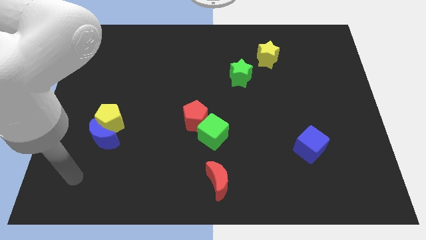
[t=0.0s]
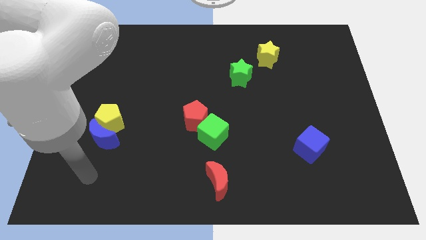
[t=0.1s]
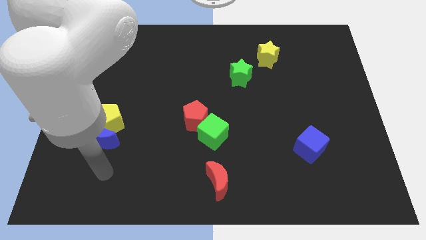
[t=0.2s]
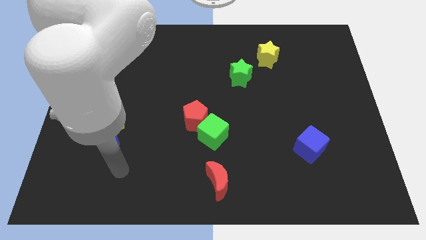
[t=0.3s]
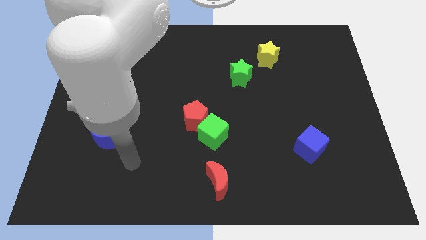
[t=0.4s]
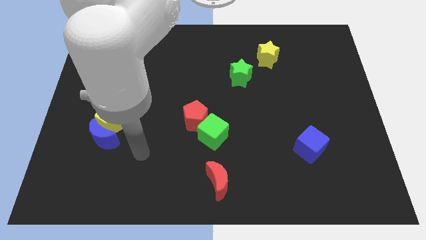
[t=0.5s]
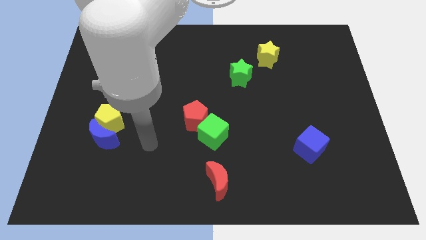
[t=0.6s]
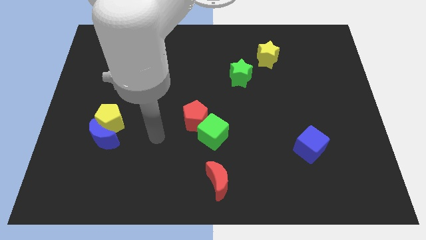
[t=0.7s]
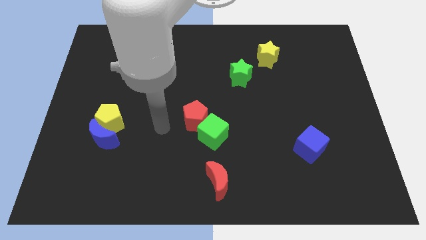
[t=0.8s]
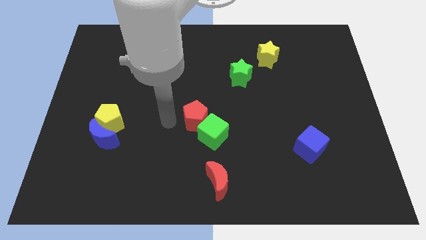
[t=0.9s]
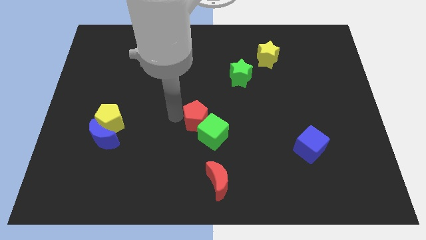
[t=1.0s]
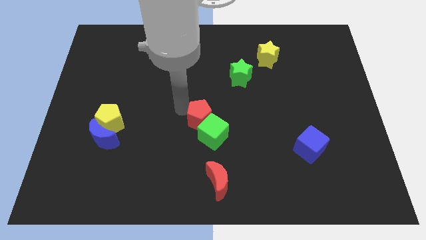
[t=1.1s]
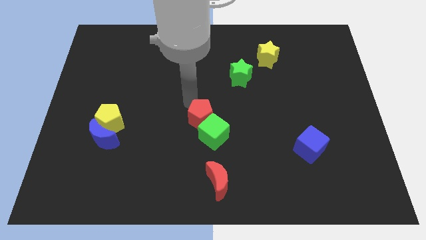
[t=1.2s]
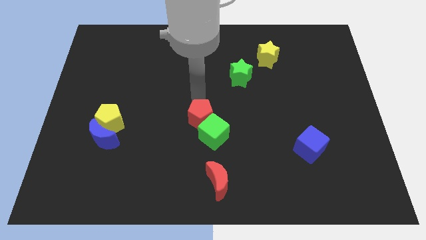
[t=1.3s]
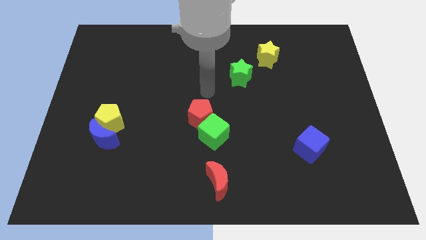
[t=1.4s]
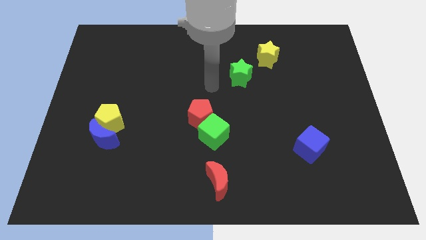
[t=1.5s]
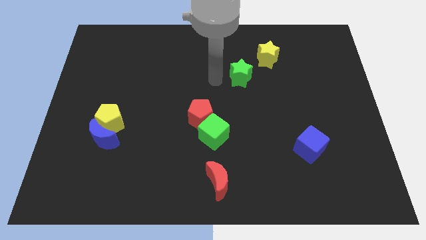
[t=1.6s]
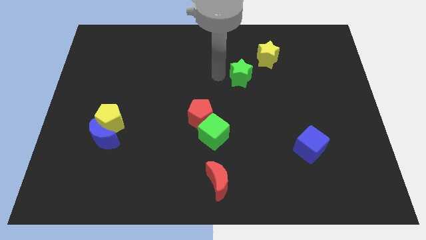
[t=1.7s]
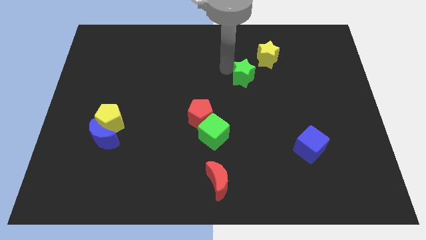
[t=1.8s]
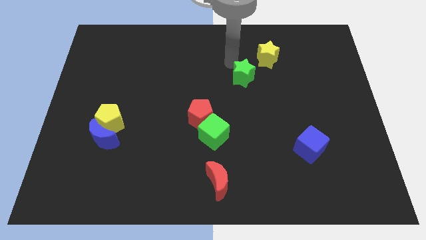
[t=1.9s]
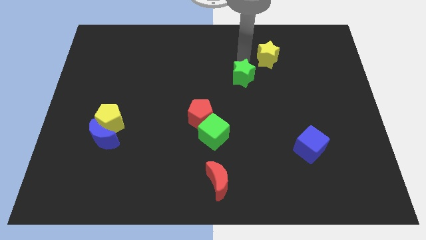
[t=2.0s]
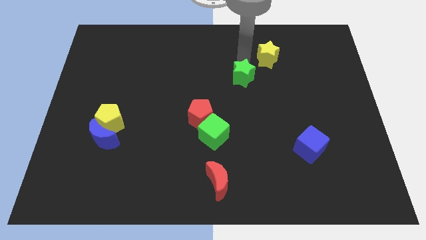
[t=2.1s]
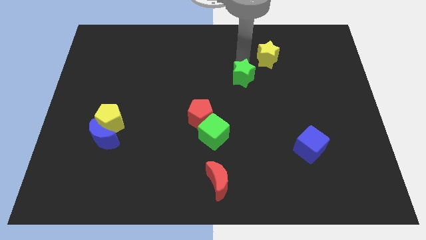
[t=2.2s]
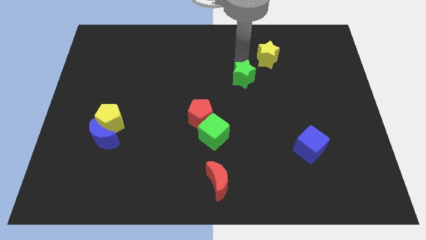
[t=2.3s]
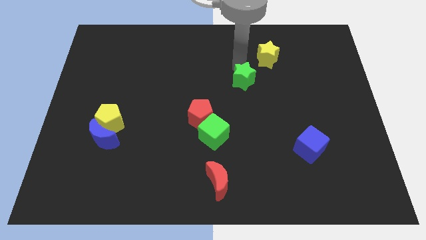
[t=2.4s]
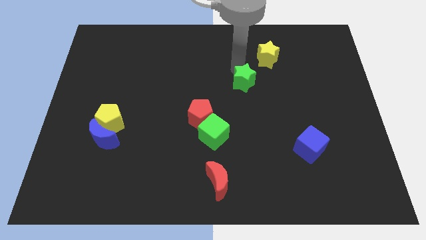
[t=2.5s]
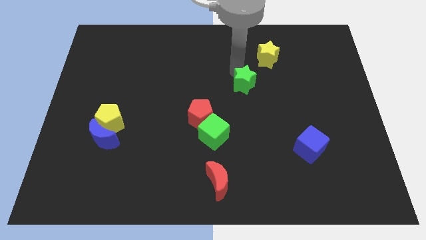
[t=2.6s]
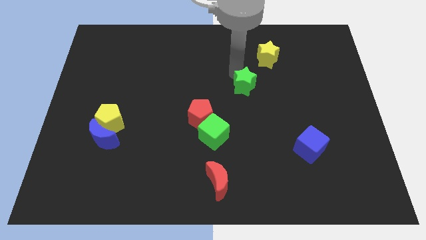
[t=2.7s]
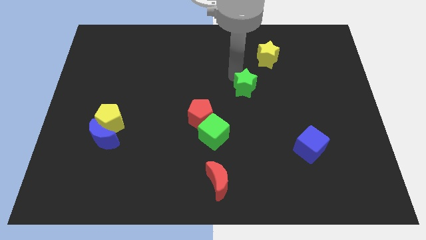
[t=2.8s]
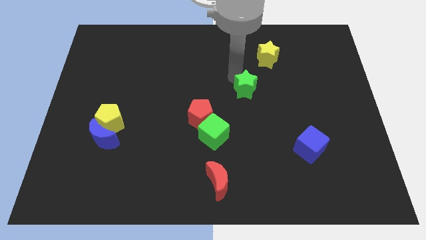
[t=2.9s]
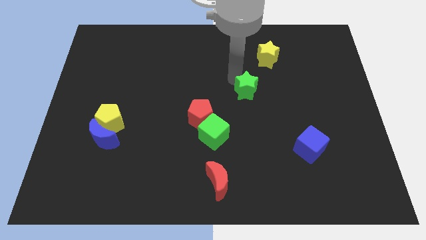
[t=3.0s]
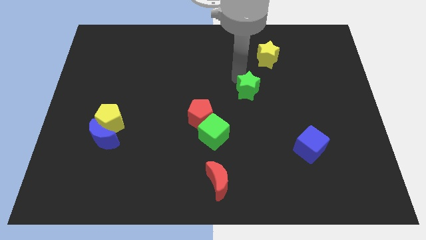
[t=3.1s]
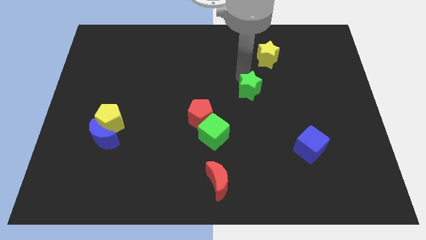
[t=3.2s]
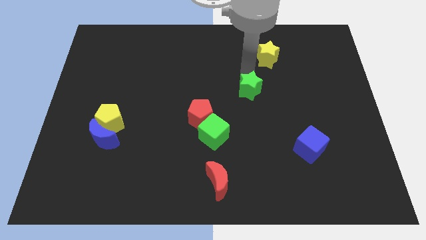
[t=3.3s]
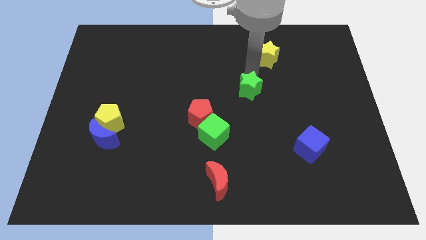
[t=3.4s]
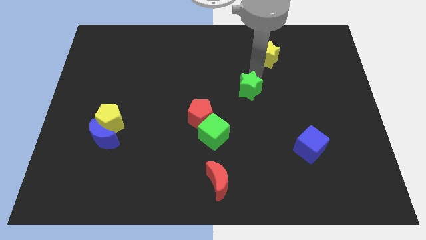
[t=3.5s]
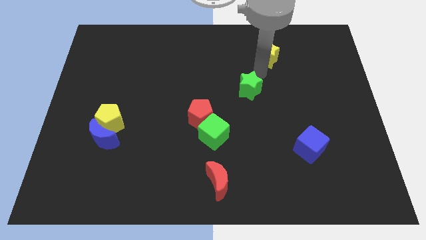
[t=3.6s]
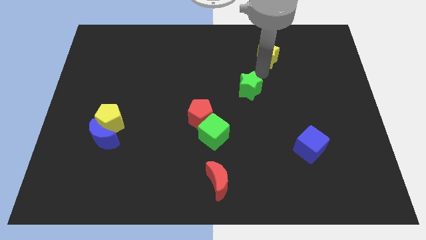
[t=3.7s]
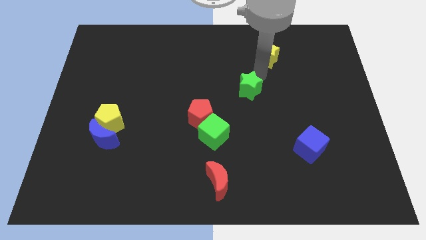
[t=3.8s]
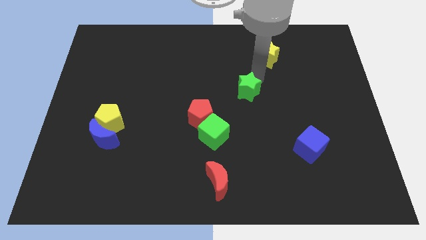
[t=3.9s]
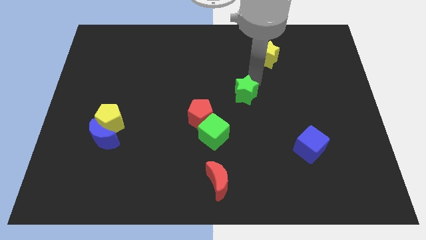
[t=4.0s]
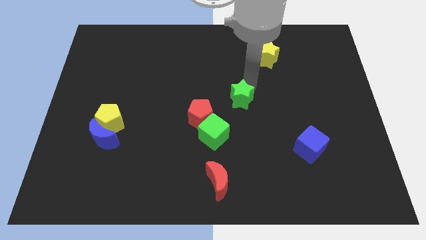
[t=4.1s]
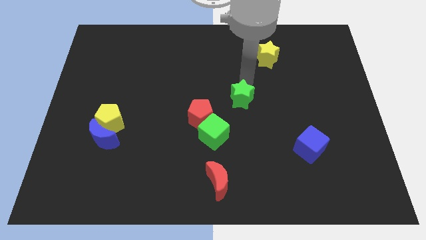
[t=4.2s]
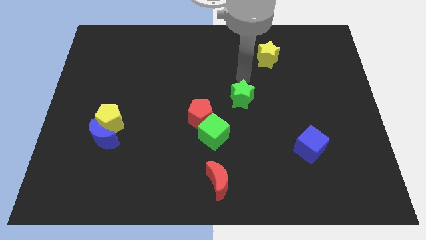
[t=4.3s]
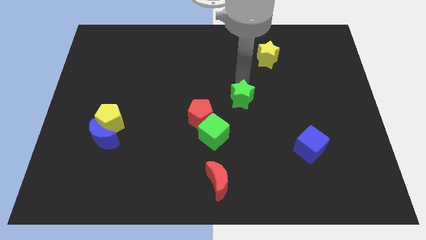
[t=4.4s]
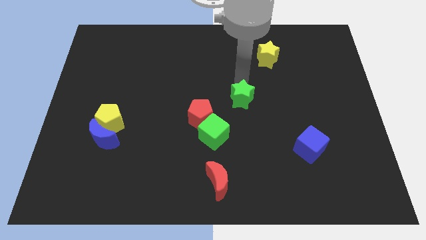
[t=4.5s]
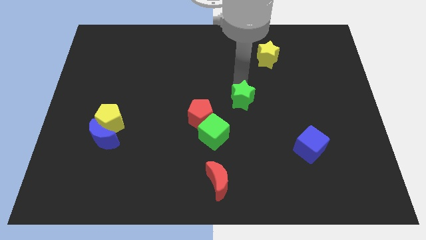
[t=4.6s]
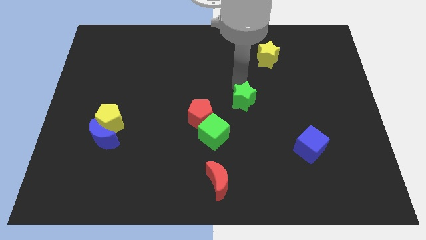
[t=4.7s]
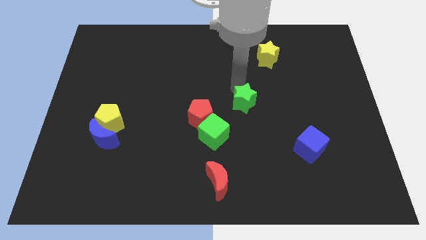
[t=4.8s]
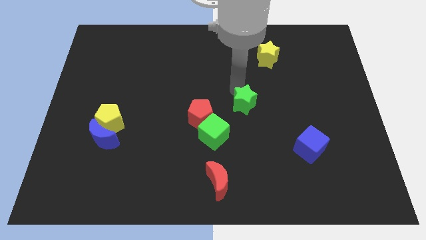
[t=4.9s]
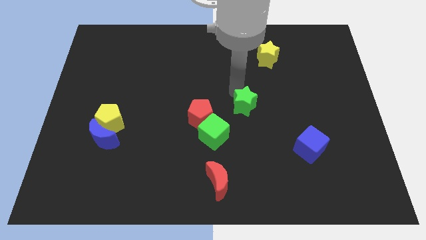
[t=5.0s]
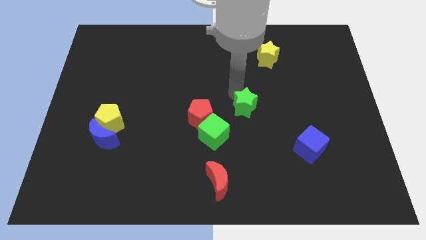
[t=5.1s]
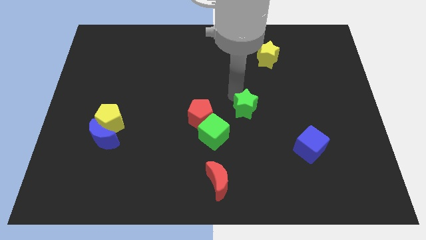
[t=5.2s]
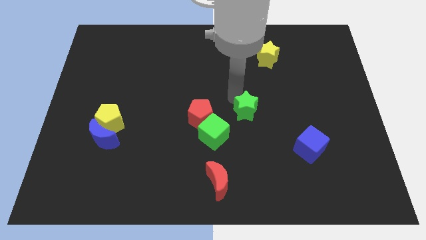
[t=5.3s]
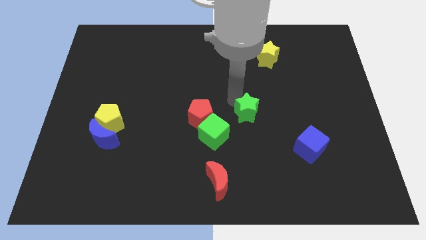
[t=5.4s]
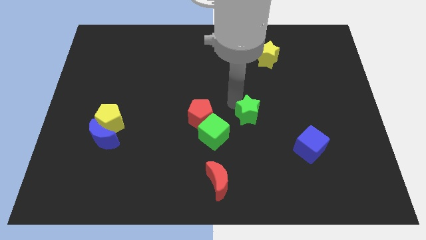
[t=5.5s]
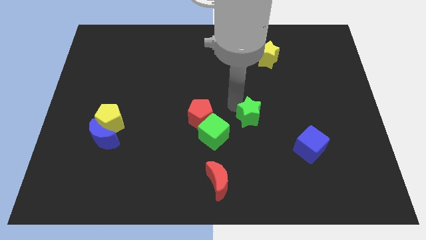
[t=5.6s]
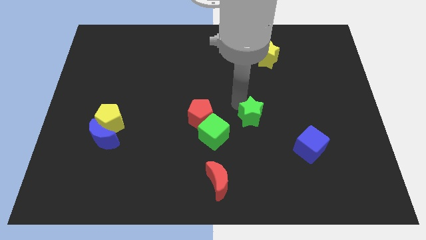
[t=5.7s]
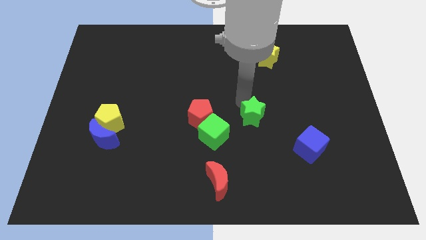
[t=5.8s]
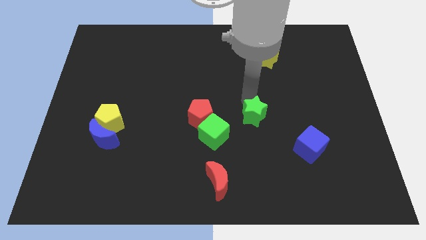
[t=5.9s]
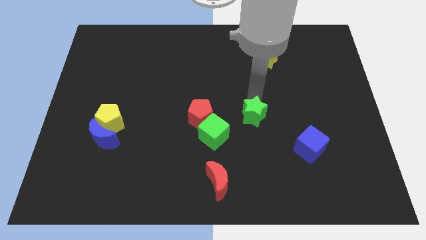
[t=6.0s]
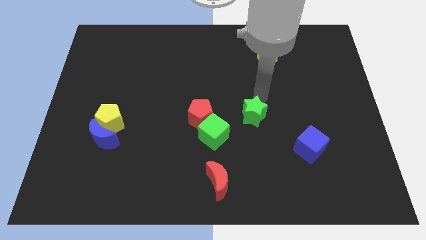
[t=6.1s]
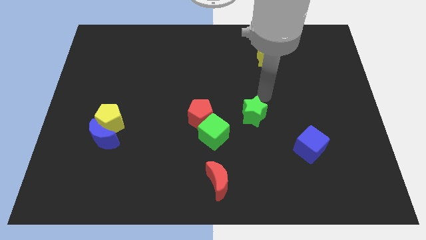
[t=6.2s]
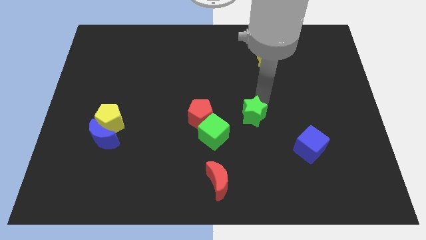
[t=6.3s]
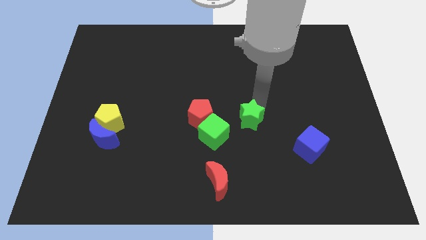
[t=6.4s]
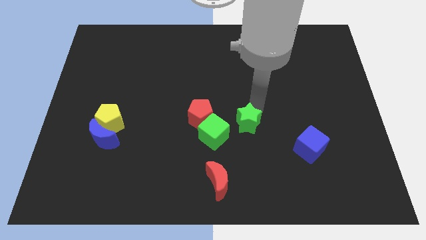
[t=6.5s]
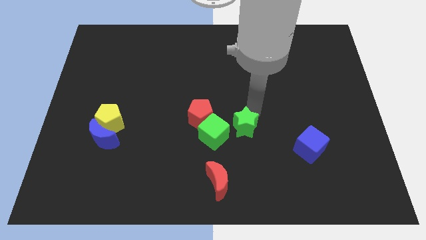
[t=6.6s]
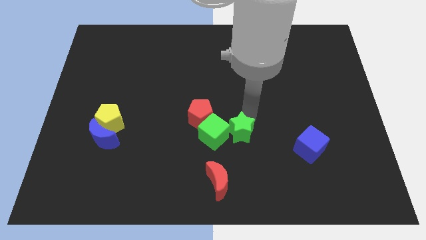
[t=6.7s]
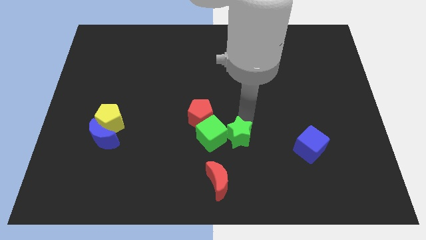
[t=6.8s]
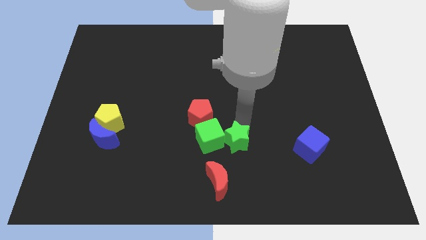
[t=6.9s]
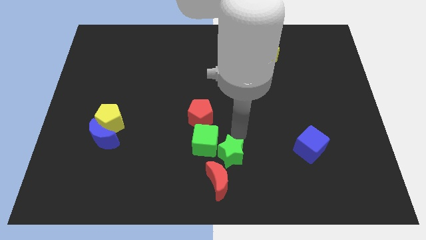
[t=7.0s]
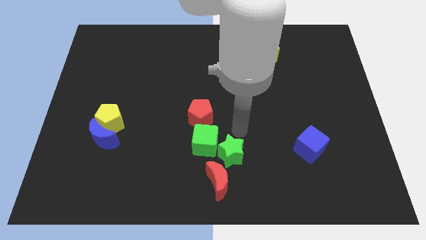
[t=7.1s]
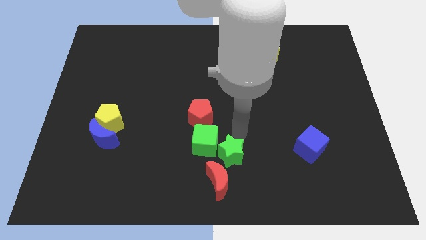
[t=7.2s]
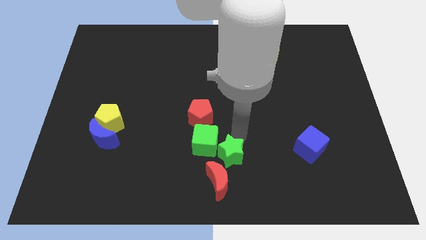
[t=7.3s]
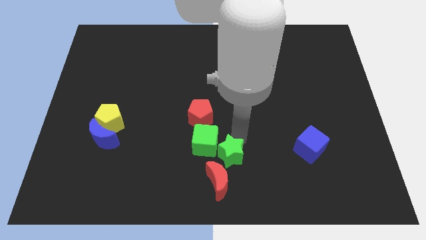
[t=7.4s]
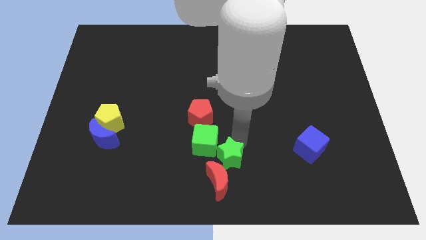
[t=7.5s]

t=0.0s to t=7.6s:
push the green star towards the red moon
